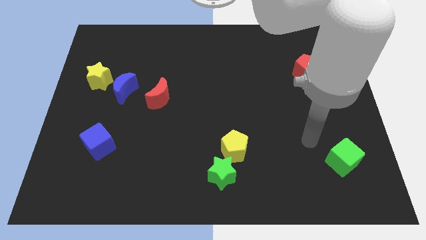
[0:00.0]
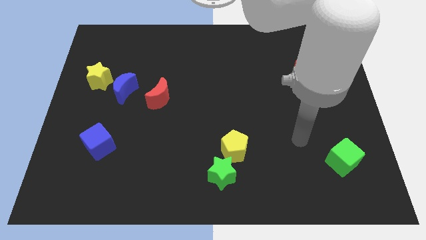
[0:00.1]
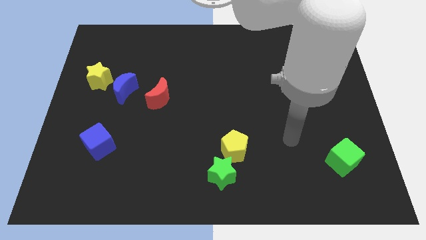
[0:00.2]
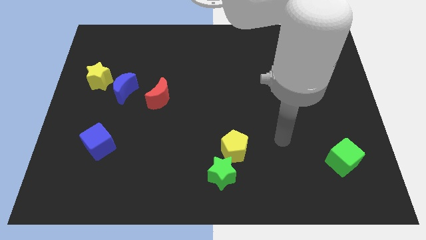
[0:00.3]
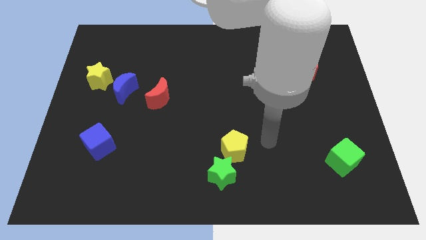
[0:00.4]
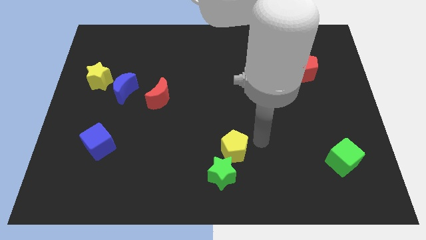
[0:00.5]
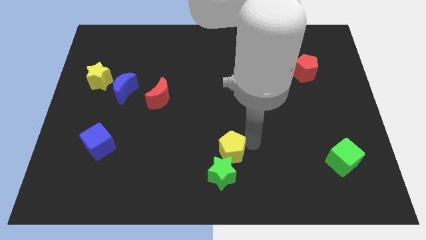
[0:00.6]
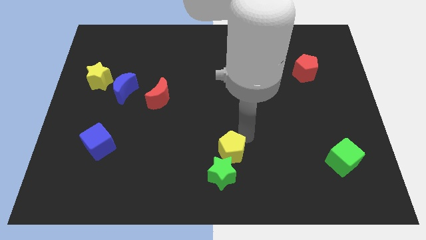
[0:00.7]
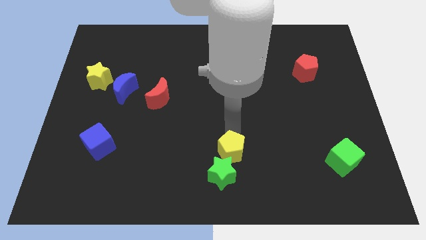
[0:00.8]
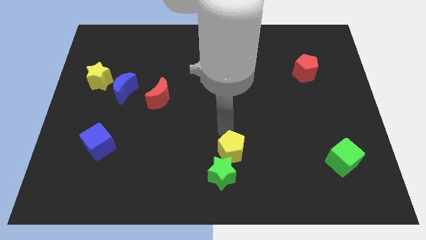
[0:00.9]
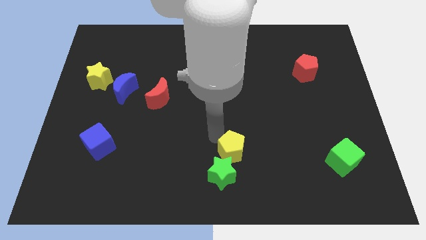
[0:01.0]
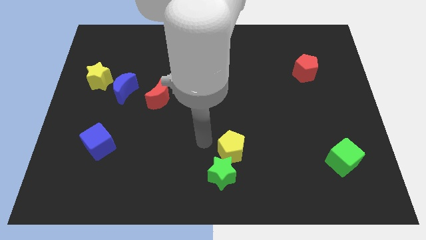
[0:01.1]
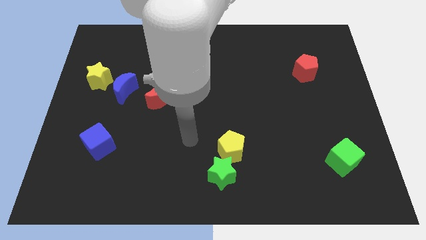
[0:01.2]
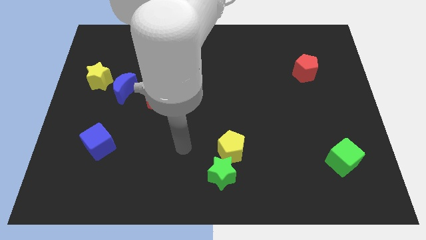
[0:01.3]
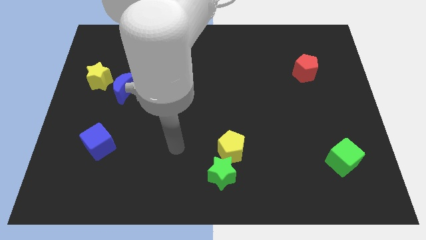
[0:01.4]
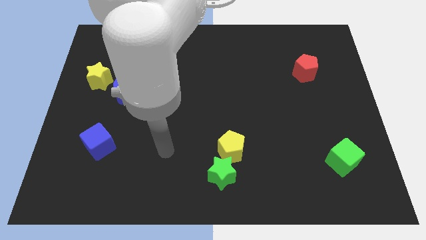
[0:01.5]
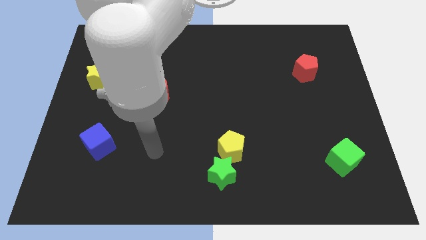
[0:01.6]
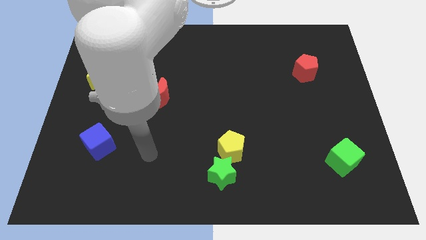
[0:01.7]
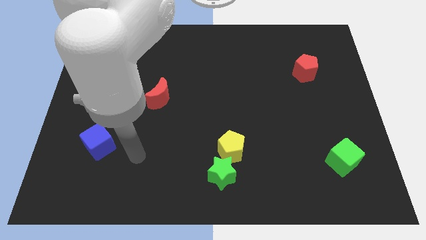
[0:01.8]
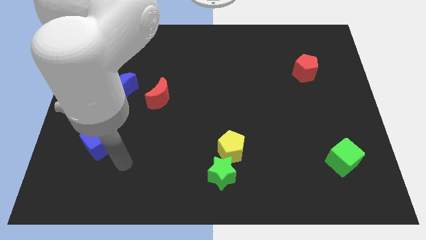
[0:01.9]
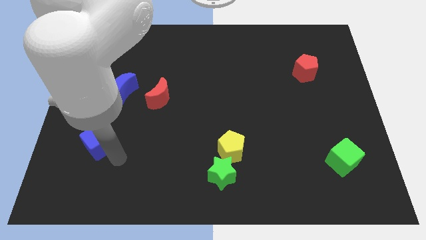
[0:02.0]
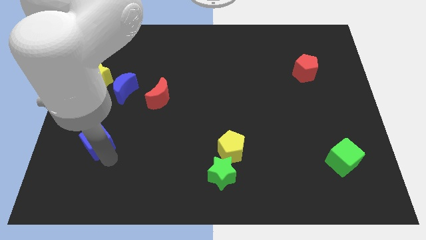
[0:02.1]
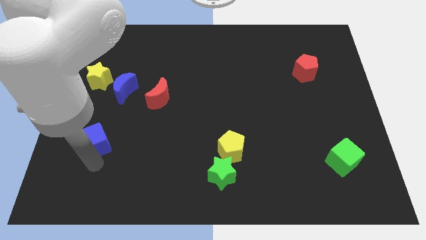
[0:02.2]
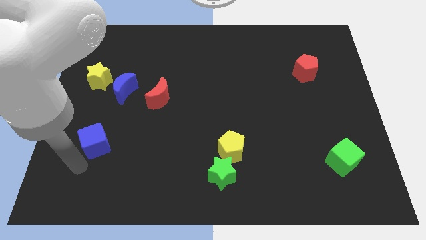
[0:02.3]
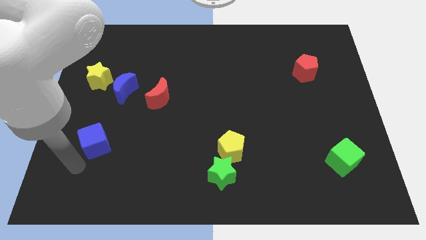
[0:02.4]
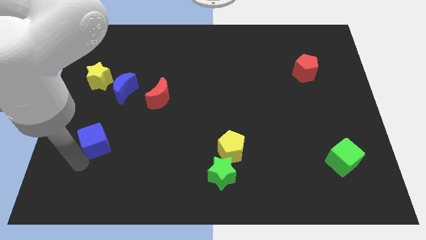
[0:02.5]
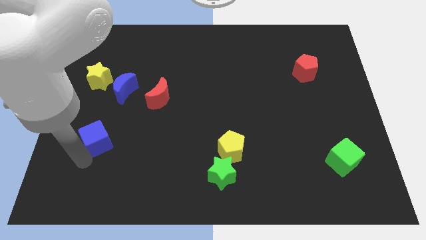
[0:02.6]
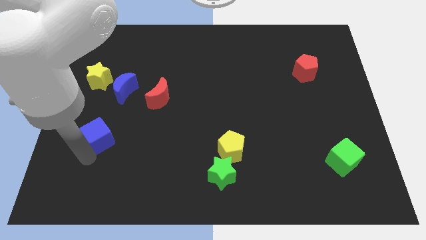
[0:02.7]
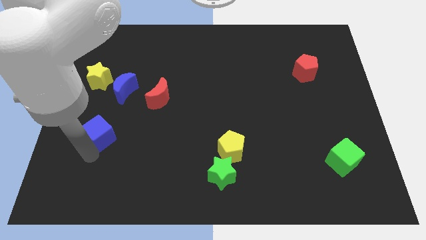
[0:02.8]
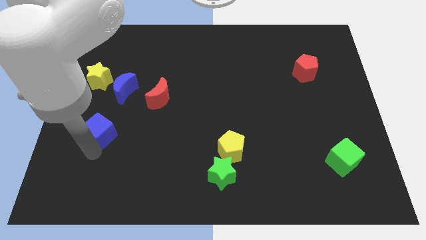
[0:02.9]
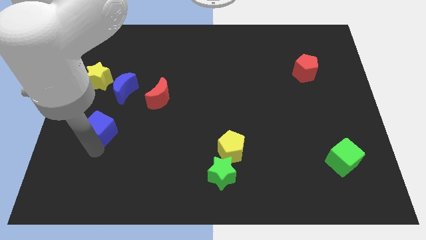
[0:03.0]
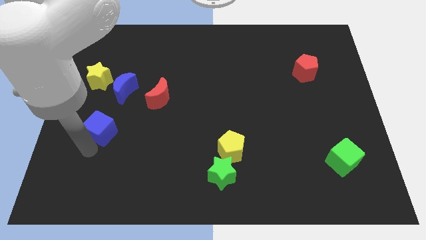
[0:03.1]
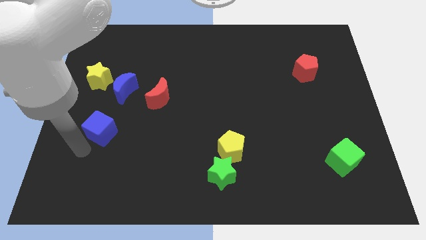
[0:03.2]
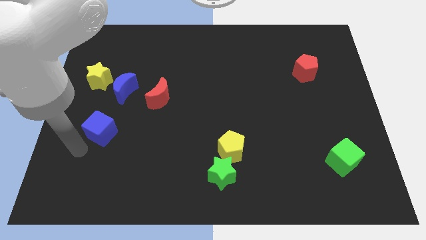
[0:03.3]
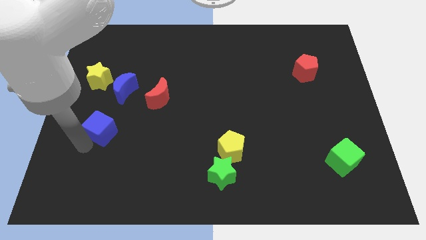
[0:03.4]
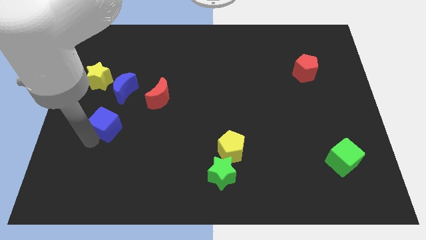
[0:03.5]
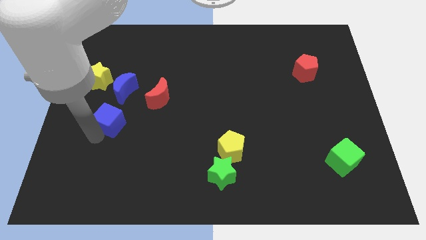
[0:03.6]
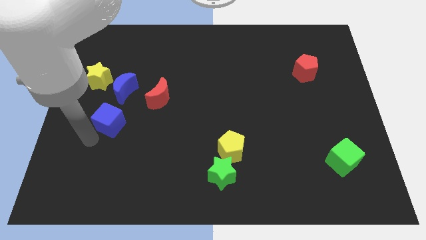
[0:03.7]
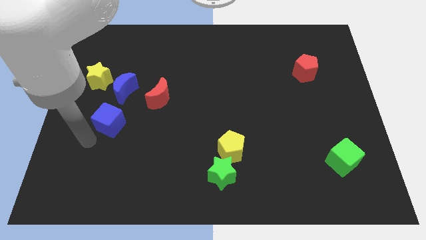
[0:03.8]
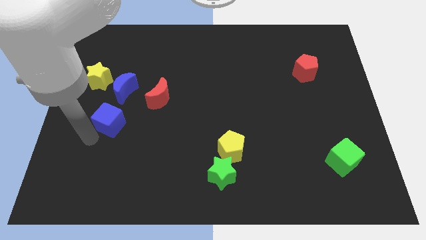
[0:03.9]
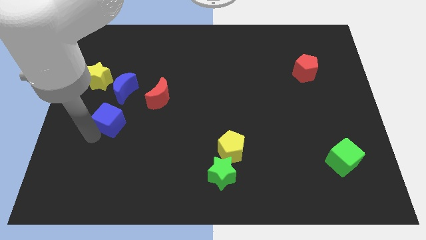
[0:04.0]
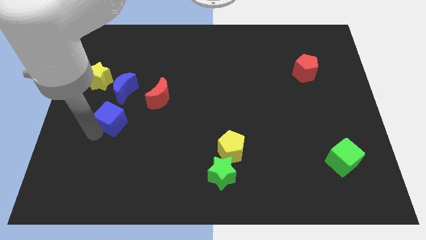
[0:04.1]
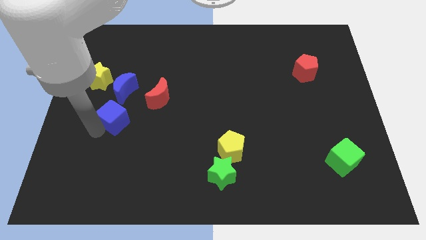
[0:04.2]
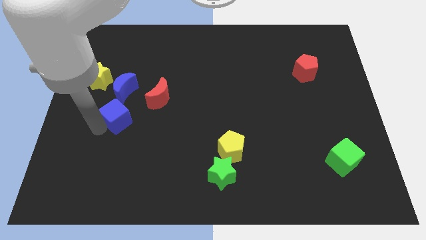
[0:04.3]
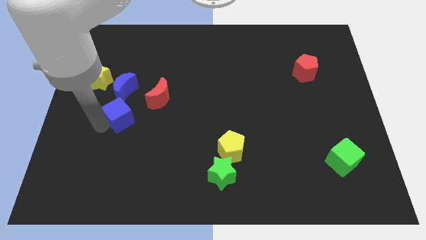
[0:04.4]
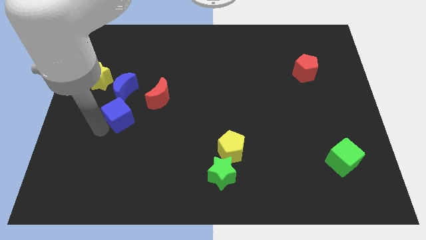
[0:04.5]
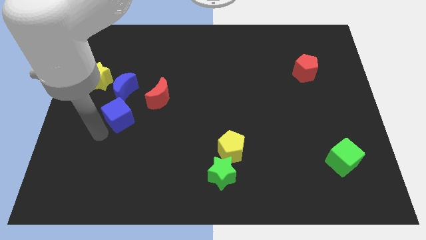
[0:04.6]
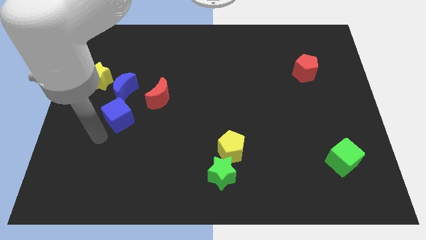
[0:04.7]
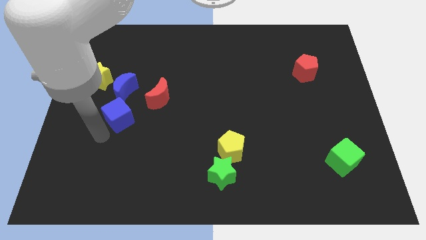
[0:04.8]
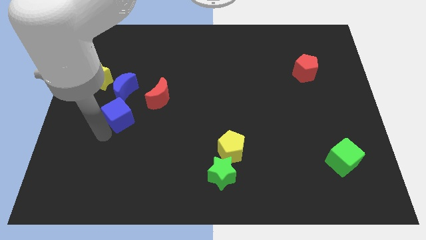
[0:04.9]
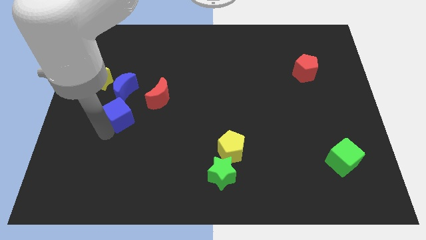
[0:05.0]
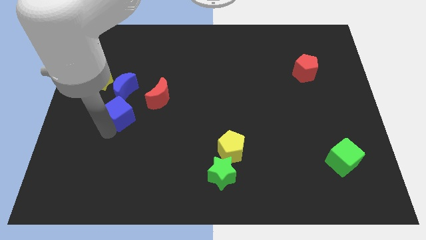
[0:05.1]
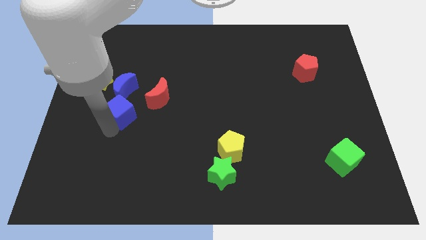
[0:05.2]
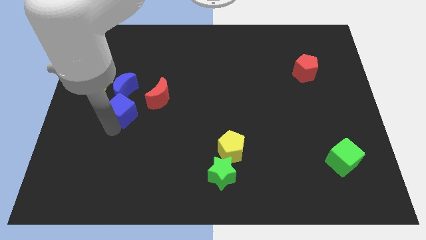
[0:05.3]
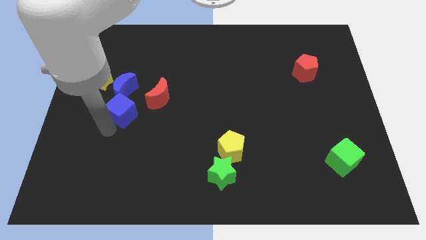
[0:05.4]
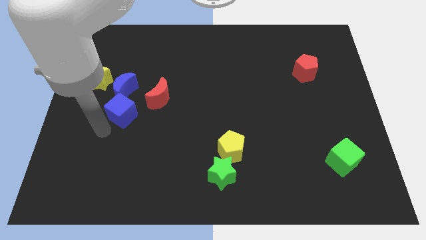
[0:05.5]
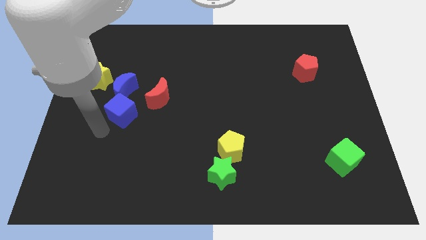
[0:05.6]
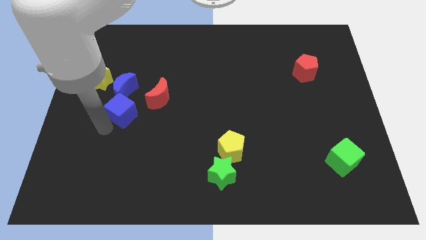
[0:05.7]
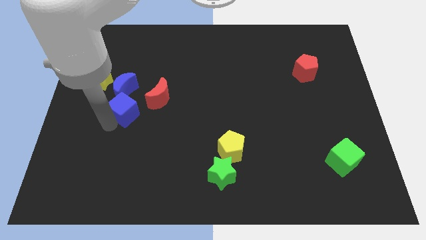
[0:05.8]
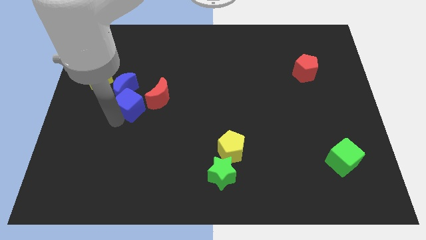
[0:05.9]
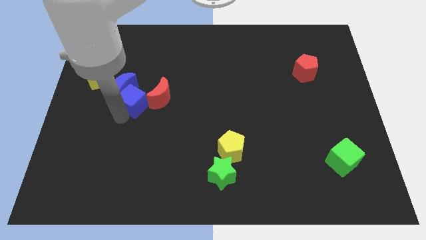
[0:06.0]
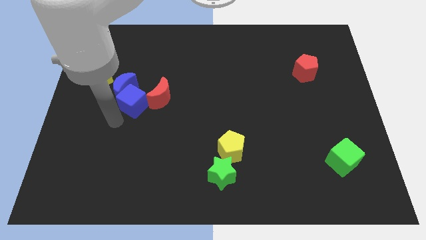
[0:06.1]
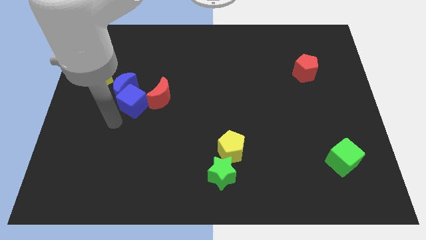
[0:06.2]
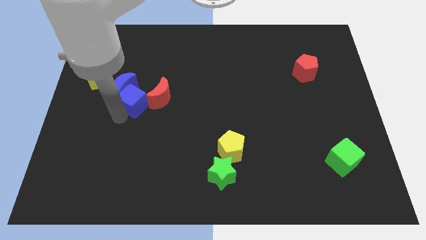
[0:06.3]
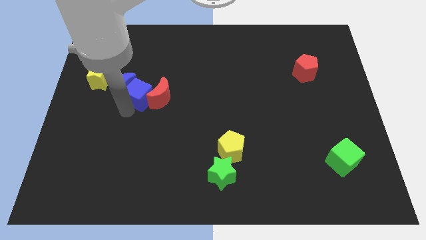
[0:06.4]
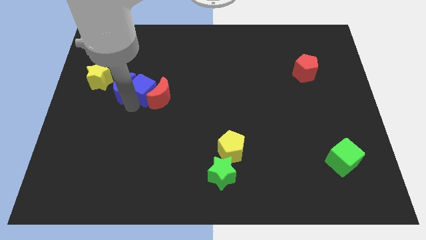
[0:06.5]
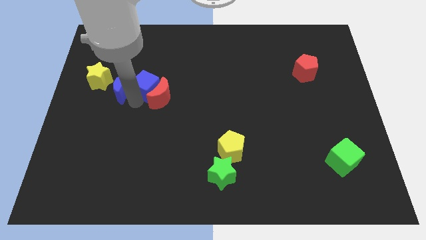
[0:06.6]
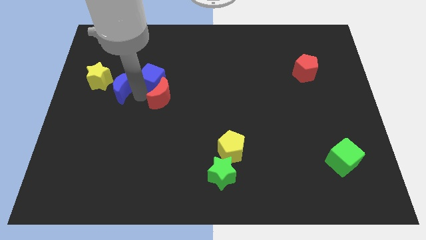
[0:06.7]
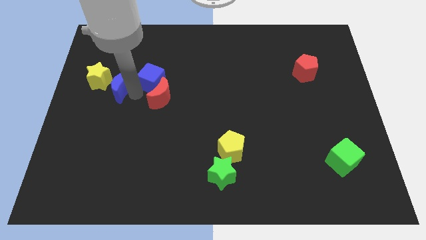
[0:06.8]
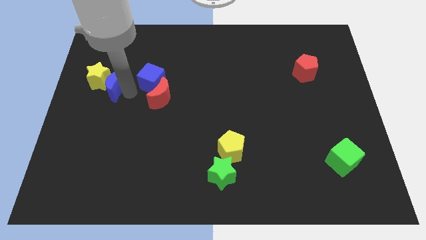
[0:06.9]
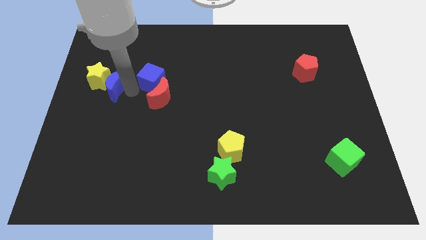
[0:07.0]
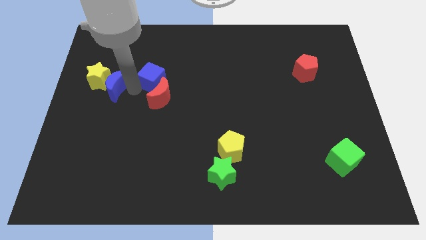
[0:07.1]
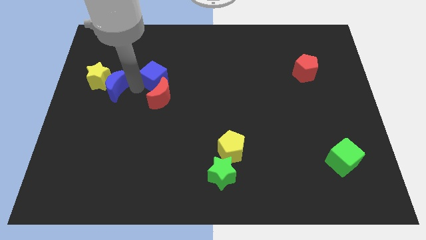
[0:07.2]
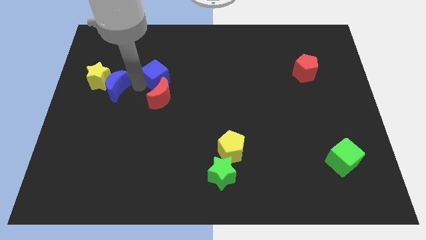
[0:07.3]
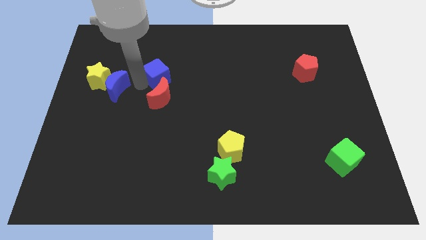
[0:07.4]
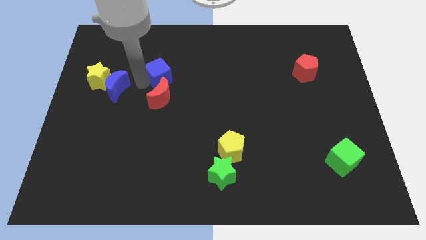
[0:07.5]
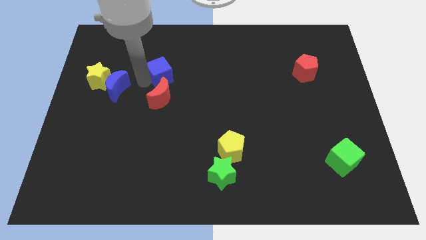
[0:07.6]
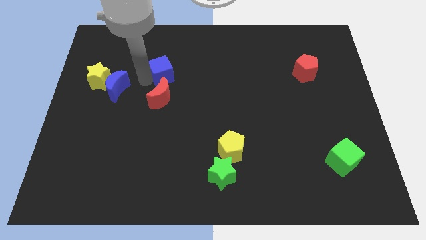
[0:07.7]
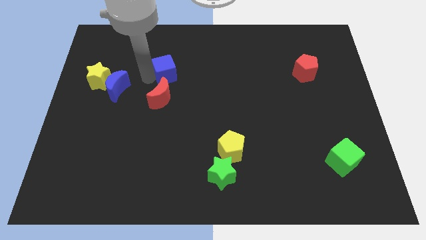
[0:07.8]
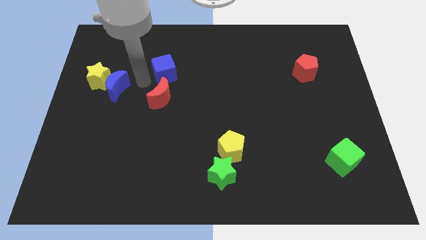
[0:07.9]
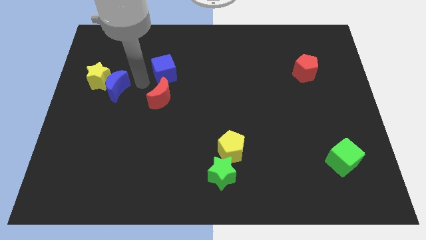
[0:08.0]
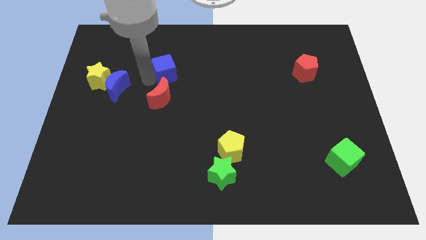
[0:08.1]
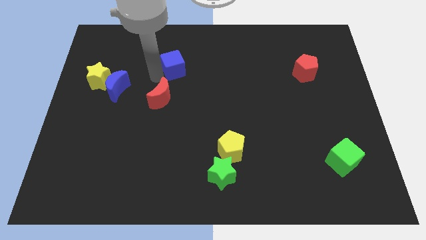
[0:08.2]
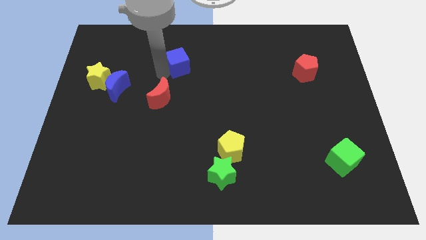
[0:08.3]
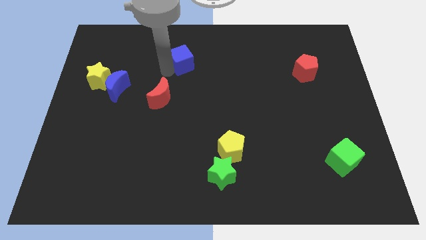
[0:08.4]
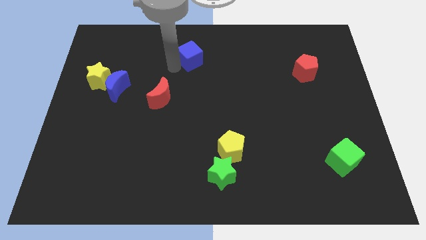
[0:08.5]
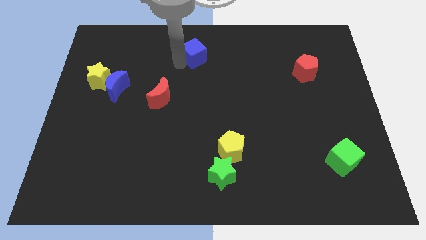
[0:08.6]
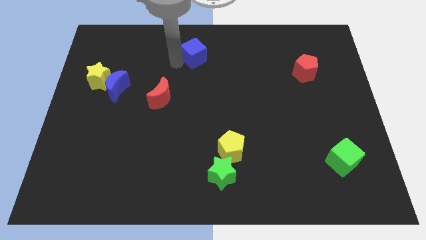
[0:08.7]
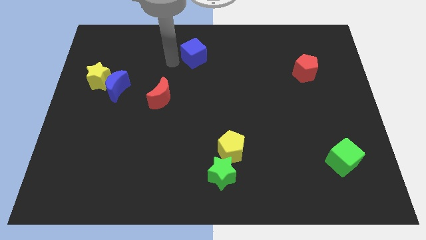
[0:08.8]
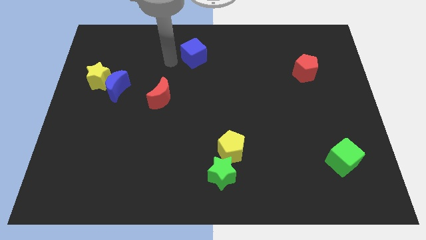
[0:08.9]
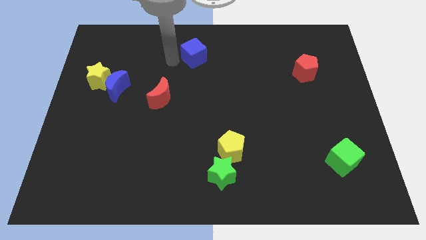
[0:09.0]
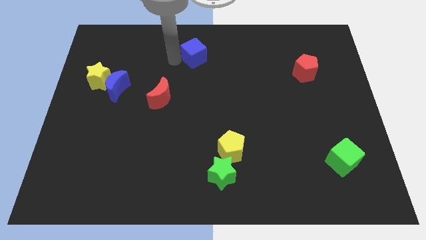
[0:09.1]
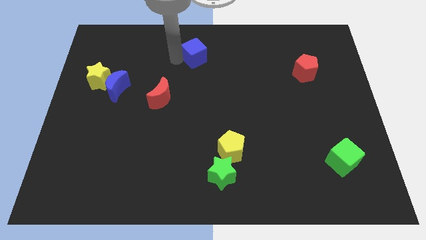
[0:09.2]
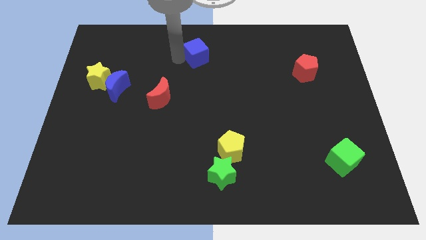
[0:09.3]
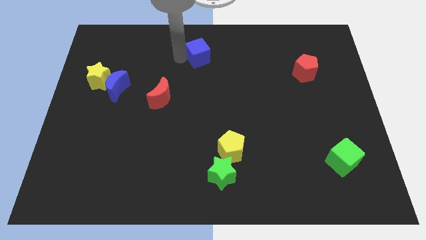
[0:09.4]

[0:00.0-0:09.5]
slide the blue cube to the top side
